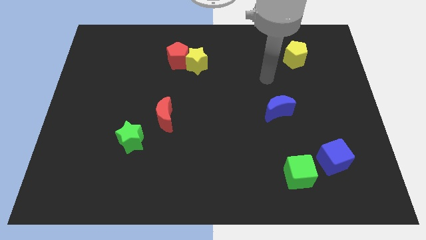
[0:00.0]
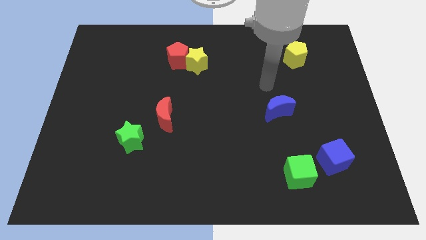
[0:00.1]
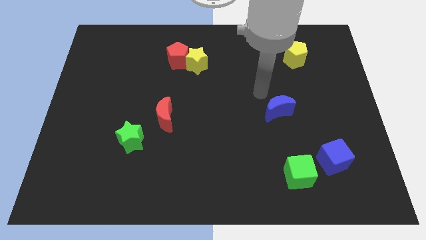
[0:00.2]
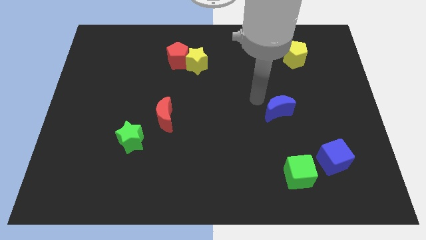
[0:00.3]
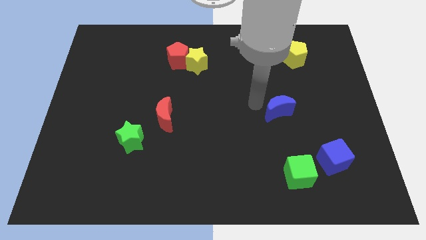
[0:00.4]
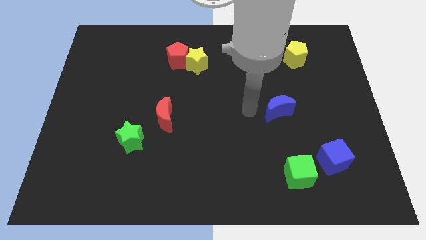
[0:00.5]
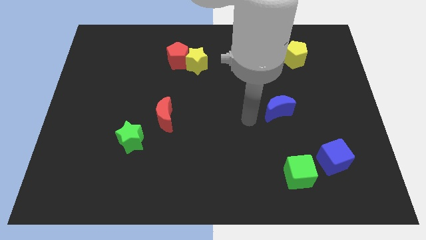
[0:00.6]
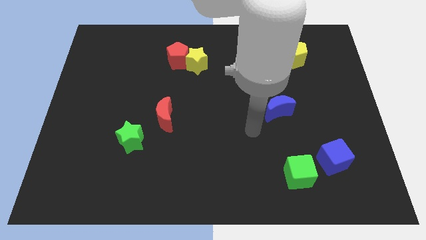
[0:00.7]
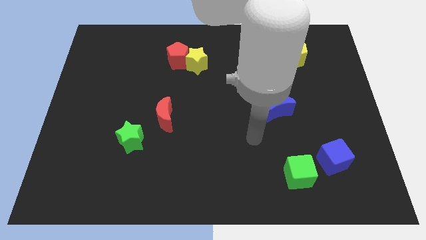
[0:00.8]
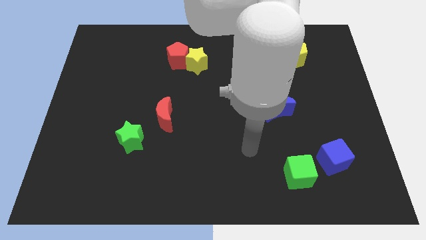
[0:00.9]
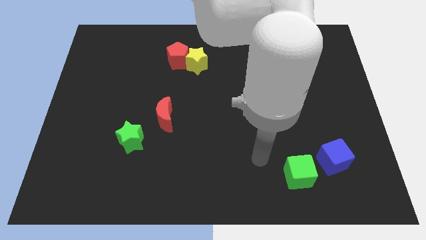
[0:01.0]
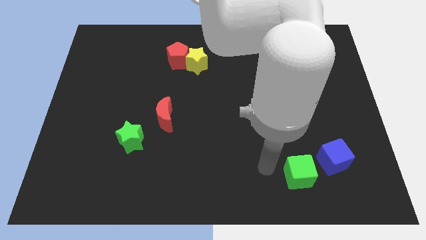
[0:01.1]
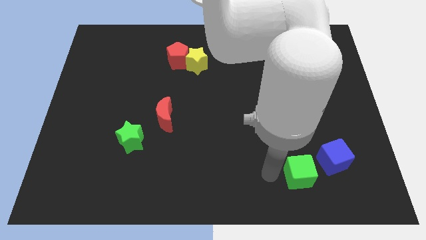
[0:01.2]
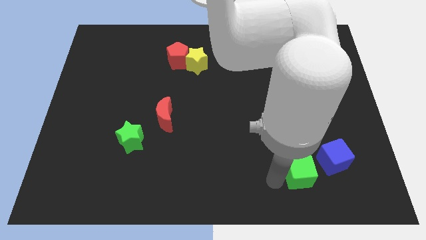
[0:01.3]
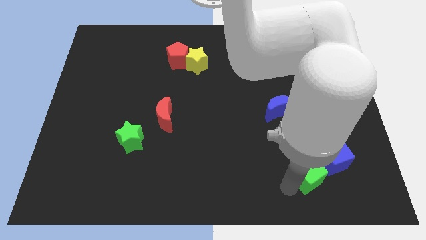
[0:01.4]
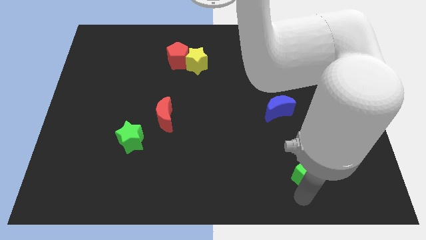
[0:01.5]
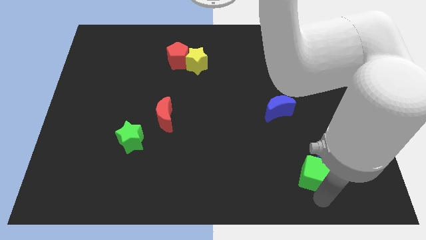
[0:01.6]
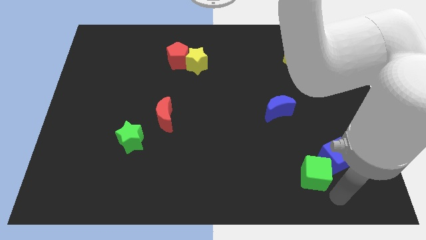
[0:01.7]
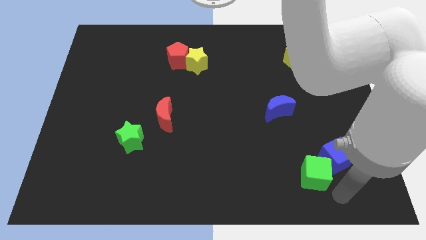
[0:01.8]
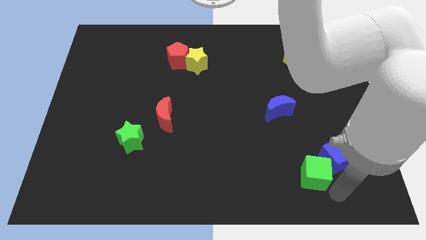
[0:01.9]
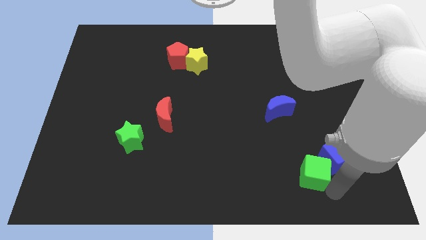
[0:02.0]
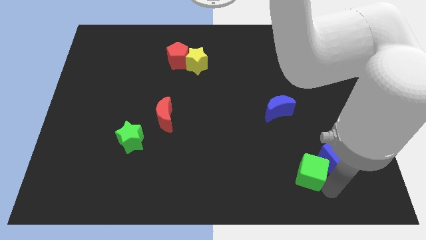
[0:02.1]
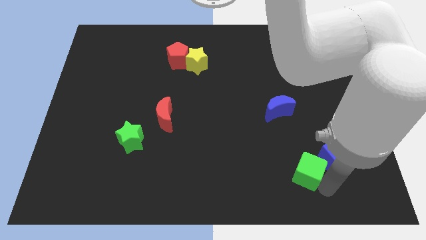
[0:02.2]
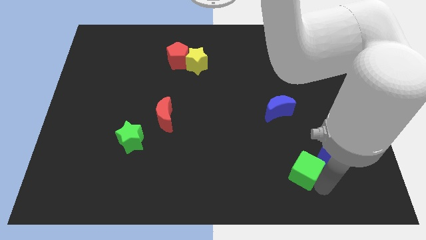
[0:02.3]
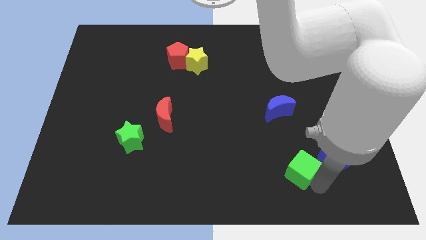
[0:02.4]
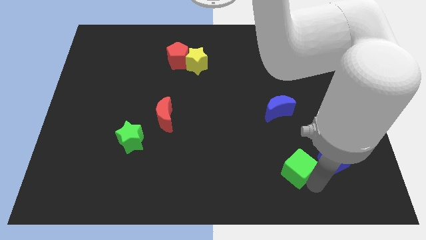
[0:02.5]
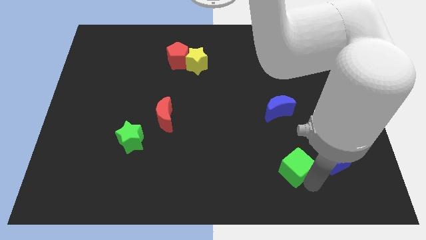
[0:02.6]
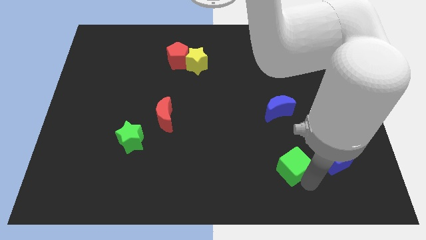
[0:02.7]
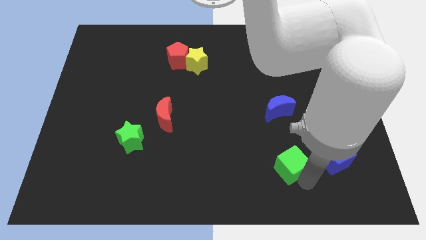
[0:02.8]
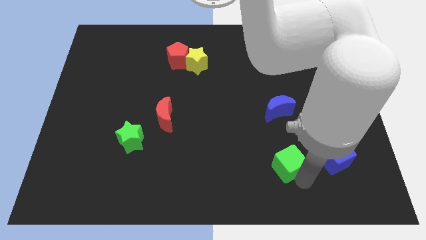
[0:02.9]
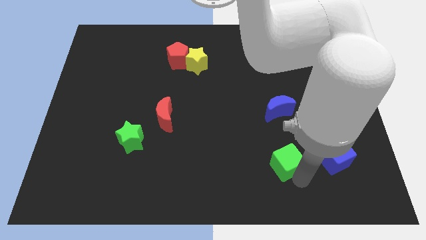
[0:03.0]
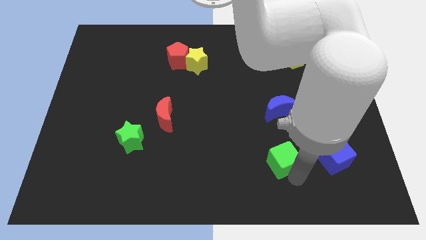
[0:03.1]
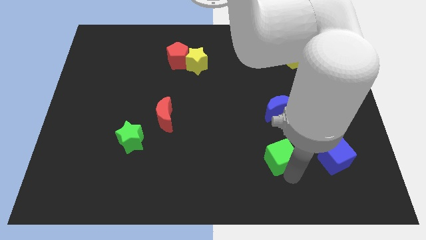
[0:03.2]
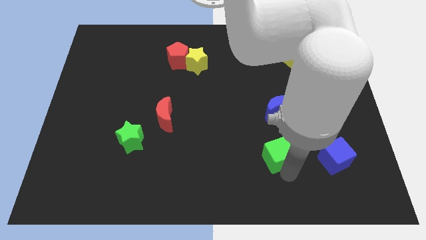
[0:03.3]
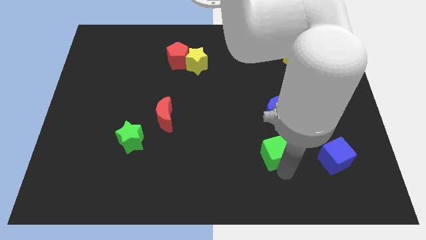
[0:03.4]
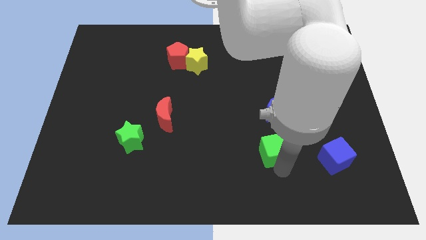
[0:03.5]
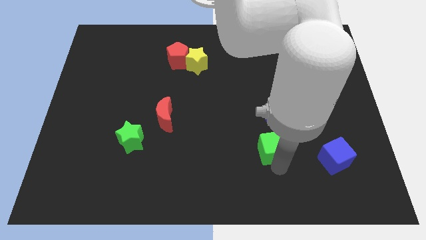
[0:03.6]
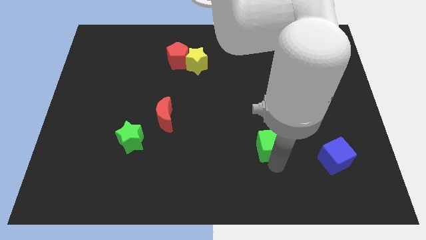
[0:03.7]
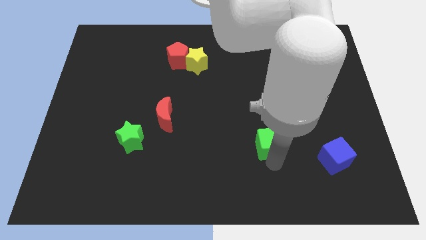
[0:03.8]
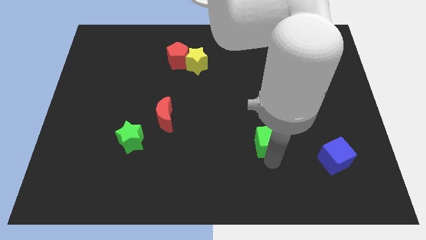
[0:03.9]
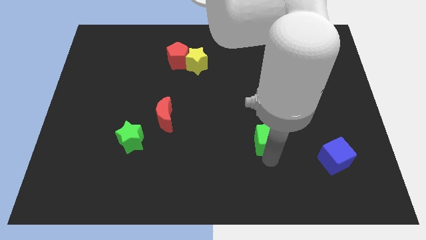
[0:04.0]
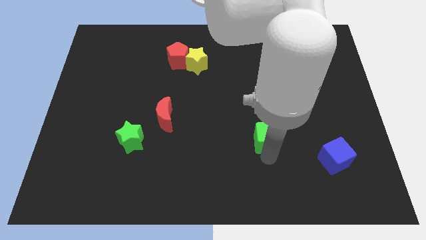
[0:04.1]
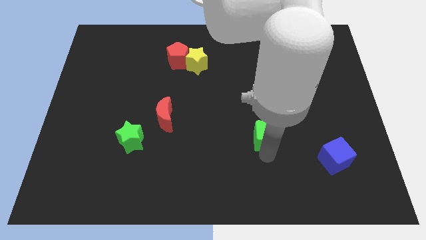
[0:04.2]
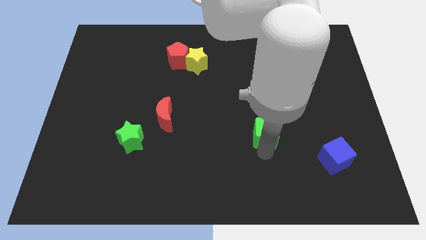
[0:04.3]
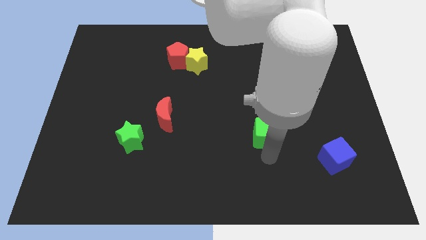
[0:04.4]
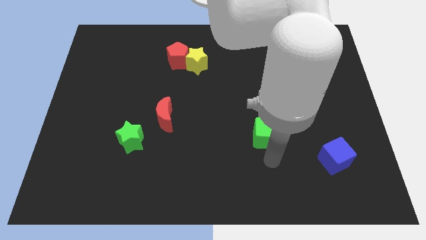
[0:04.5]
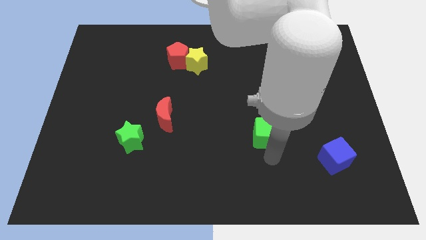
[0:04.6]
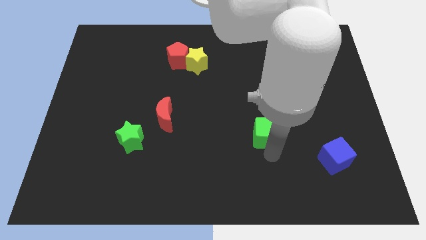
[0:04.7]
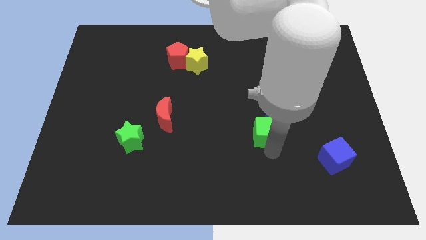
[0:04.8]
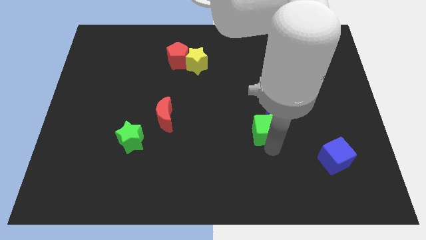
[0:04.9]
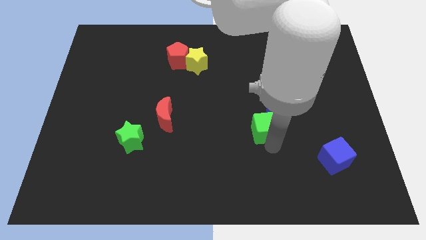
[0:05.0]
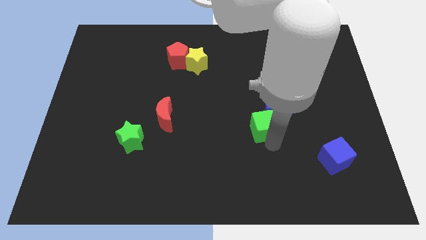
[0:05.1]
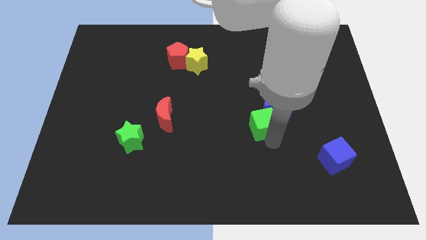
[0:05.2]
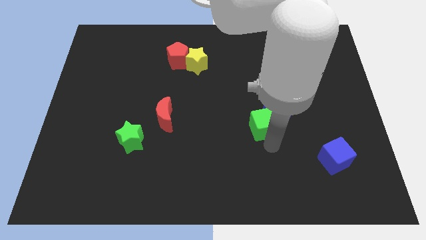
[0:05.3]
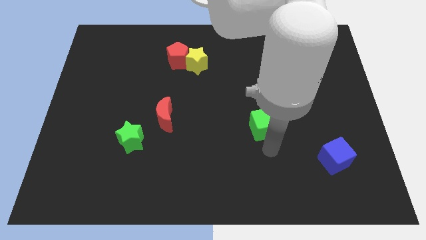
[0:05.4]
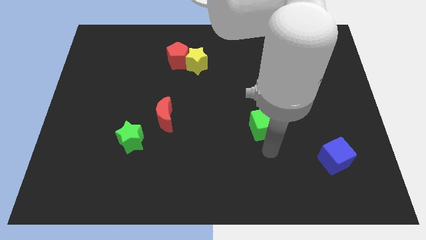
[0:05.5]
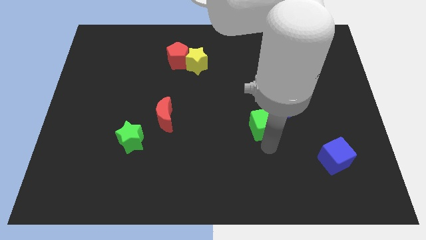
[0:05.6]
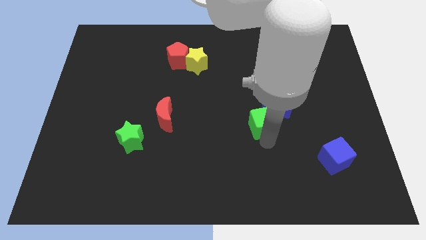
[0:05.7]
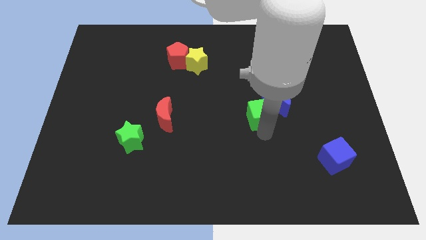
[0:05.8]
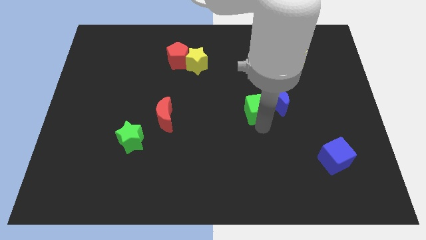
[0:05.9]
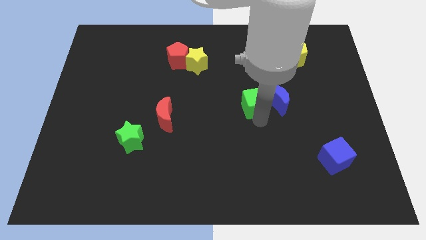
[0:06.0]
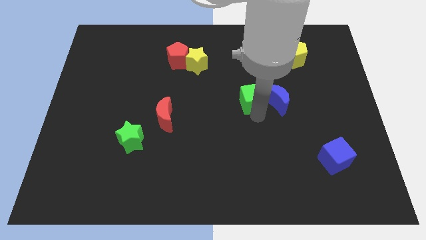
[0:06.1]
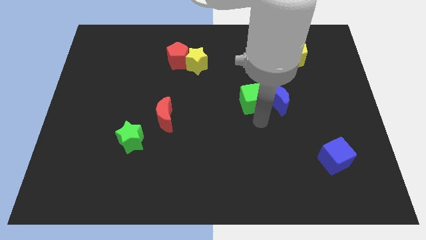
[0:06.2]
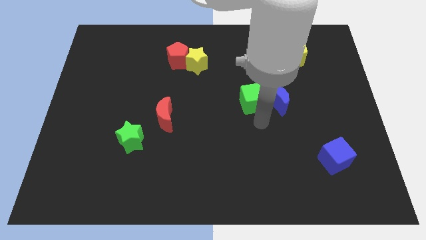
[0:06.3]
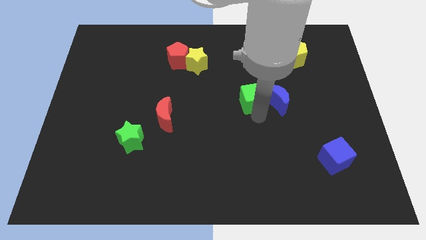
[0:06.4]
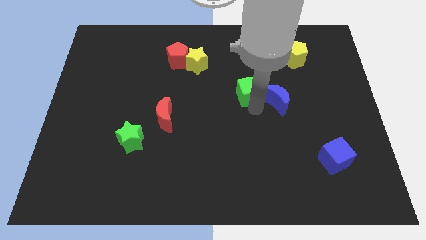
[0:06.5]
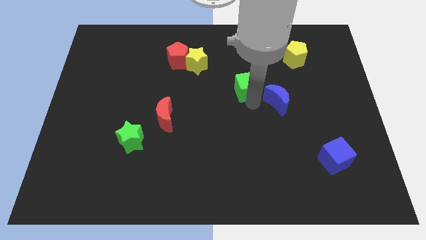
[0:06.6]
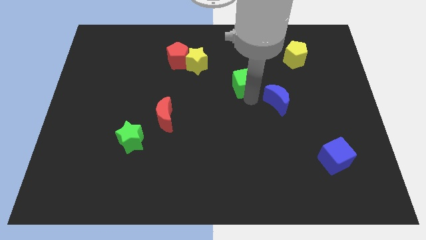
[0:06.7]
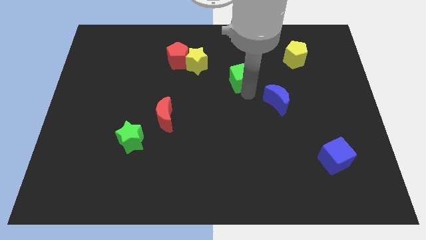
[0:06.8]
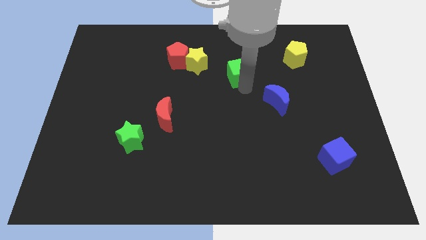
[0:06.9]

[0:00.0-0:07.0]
move the green cube to the right of the yellow star
